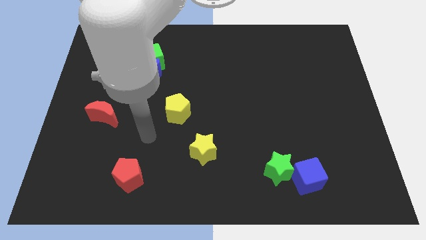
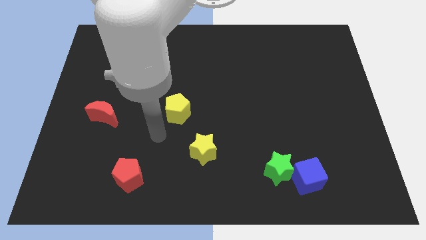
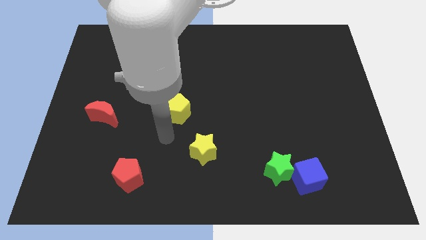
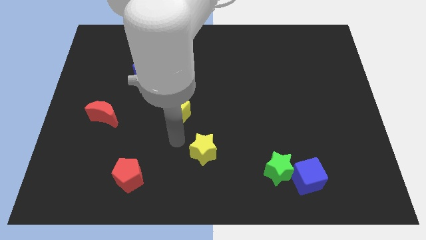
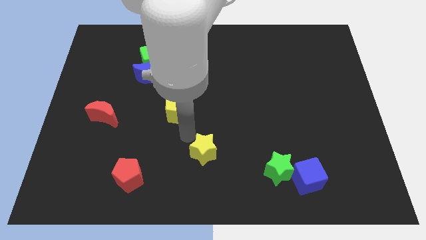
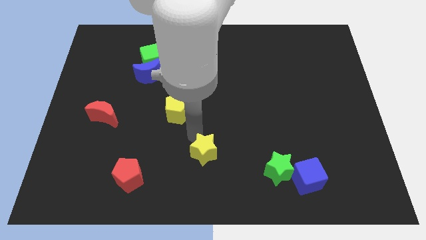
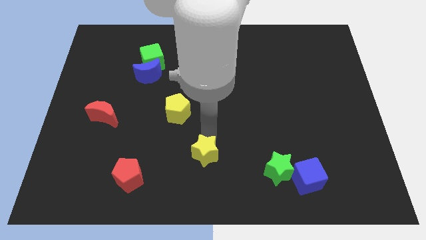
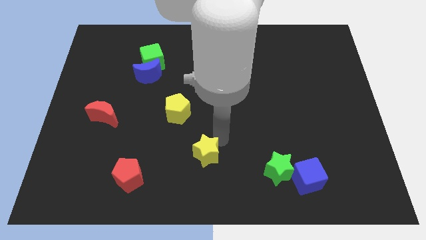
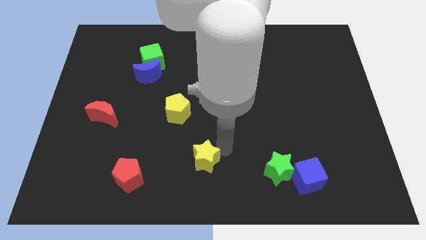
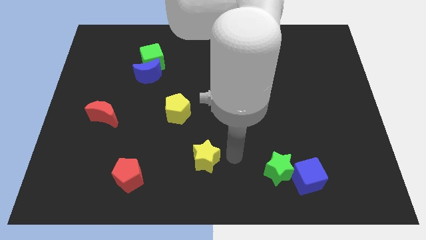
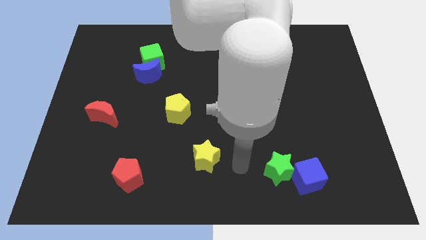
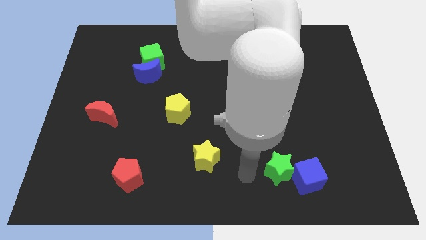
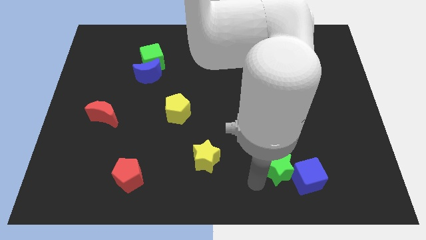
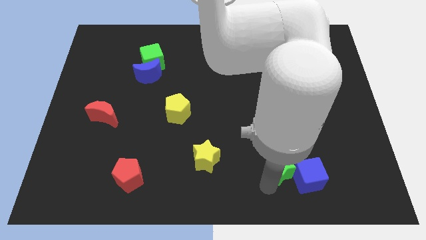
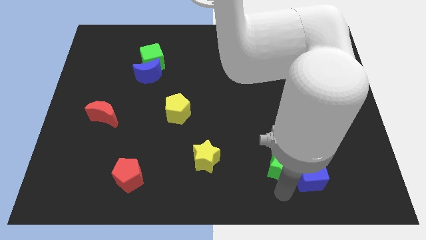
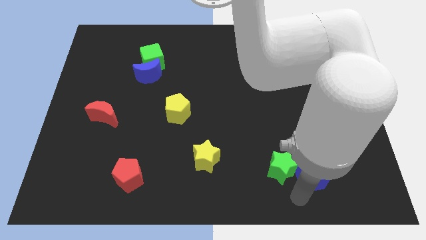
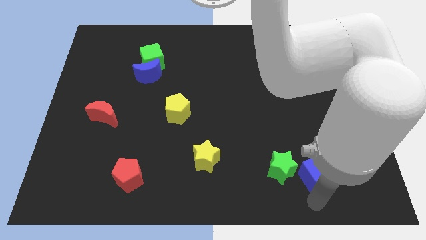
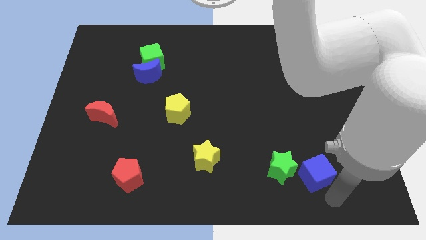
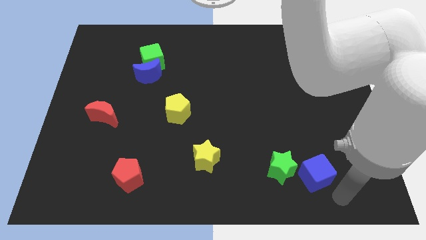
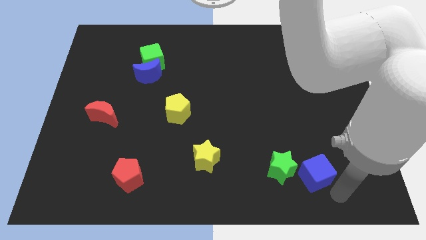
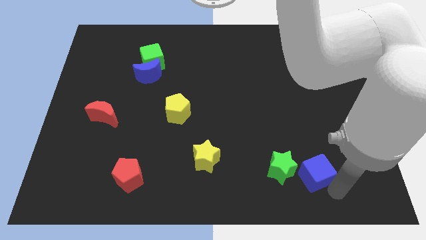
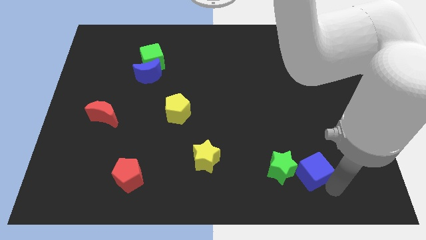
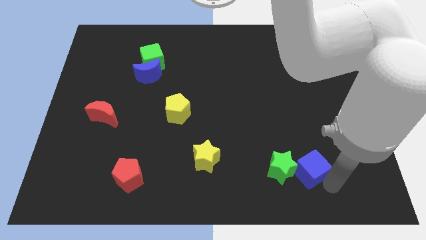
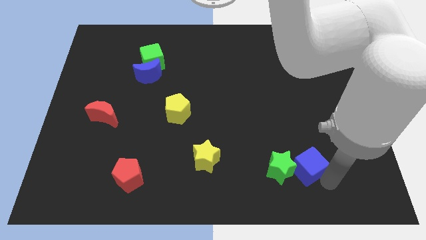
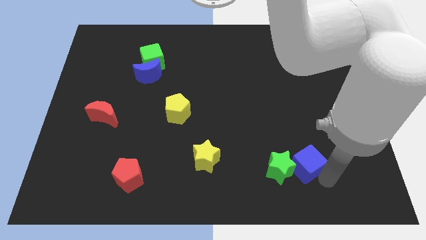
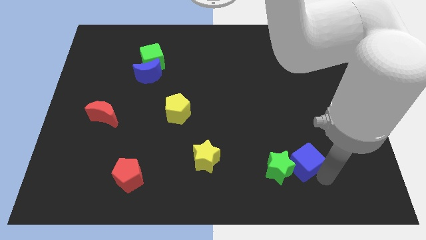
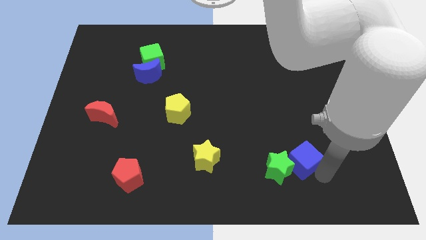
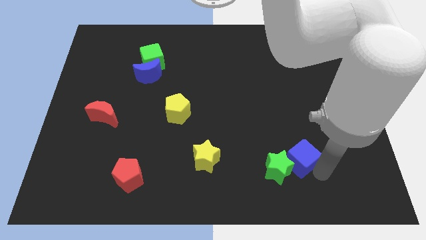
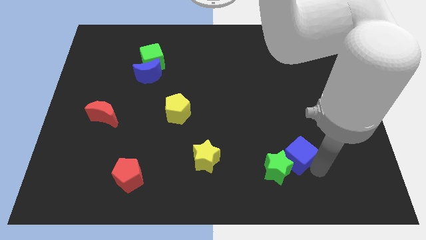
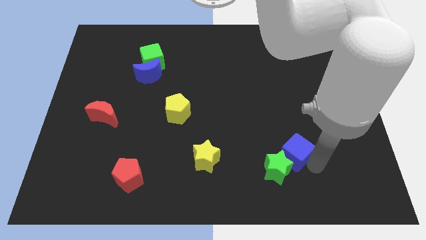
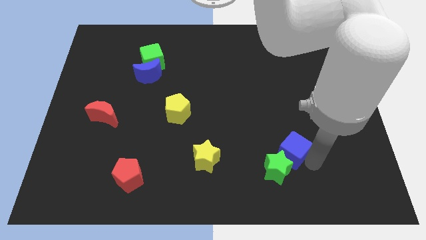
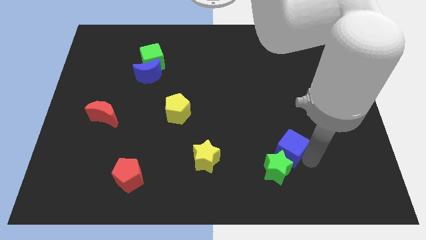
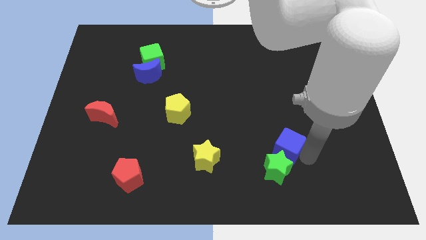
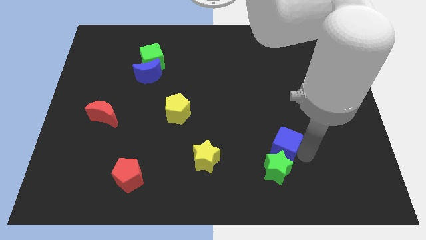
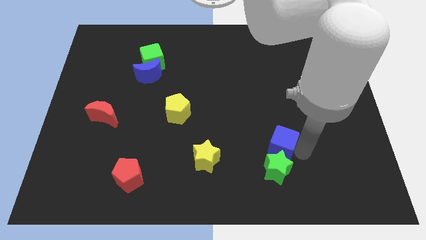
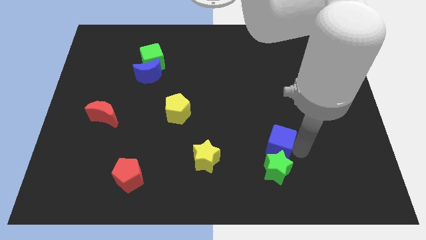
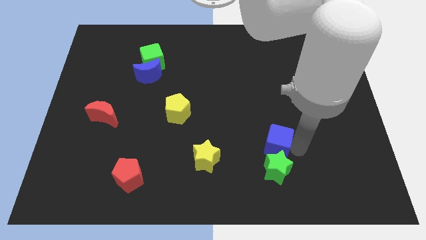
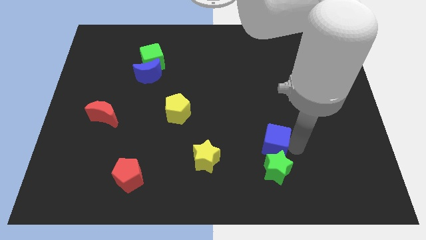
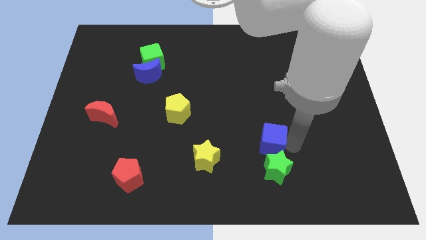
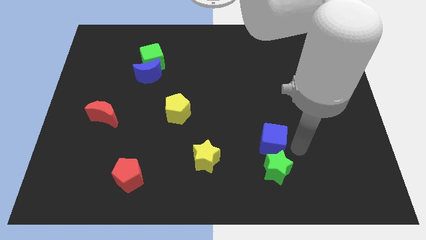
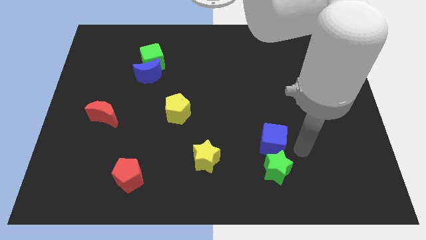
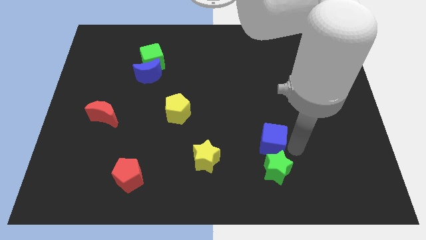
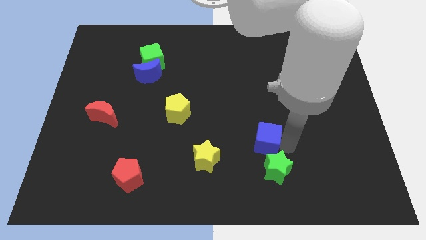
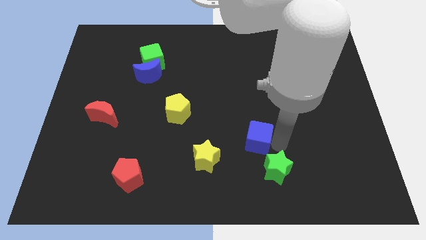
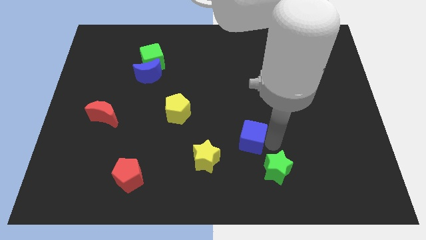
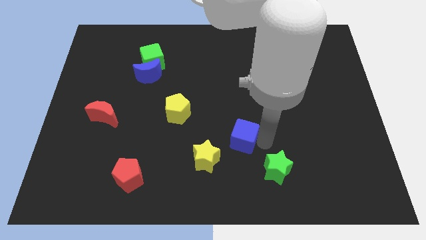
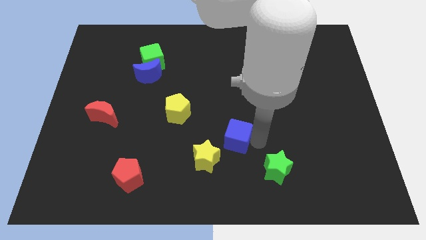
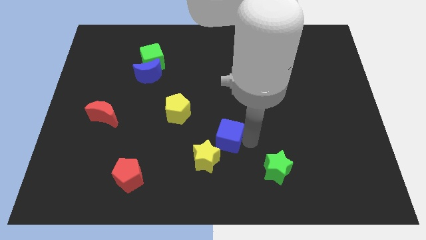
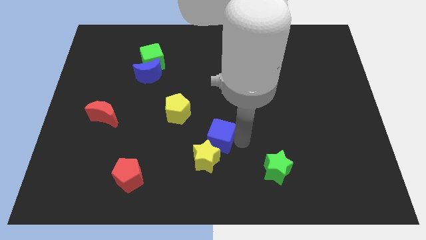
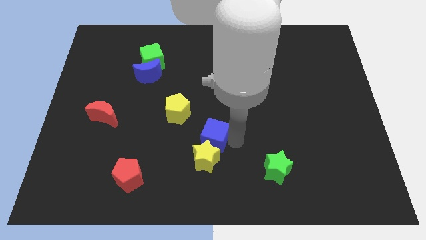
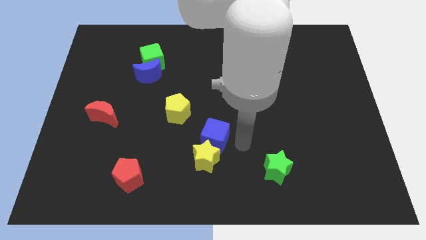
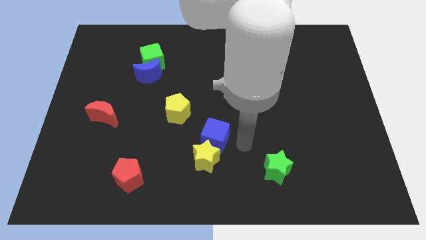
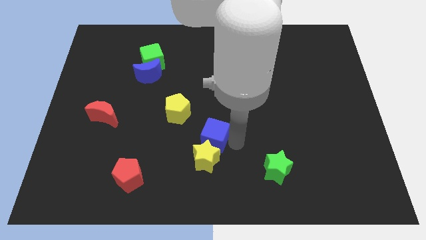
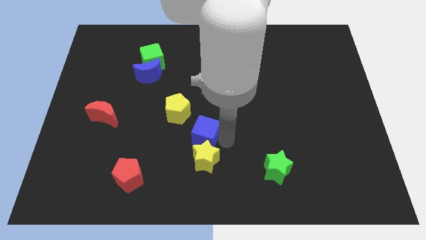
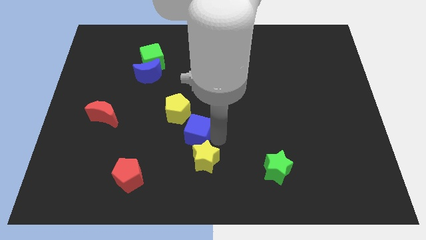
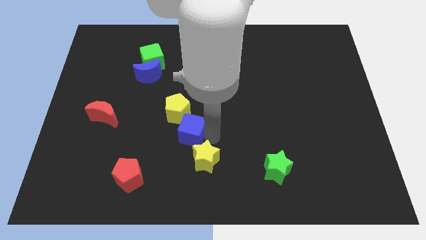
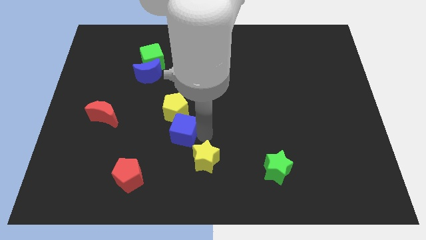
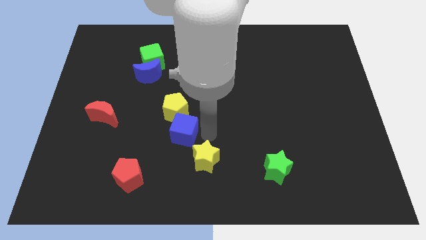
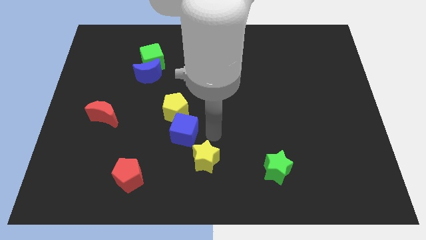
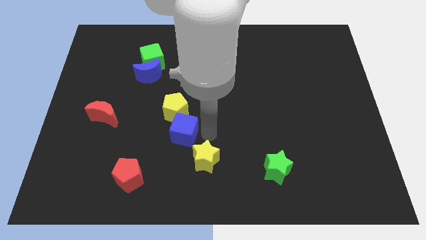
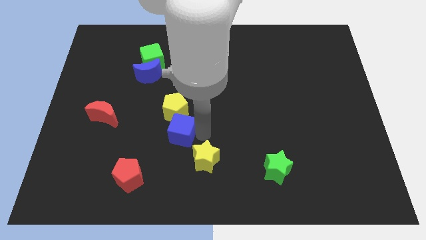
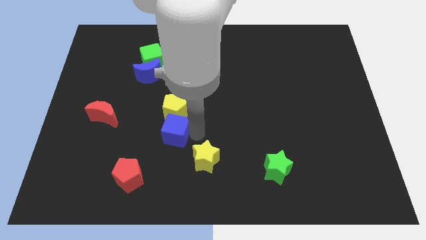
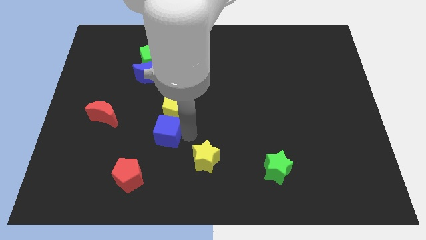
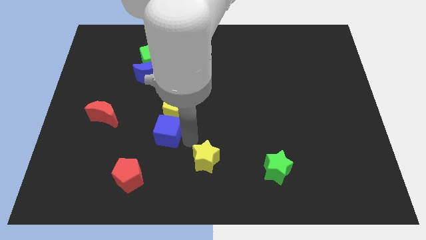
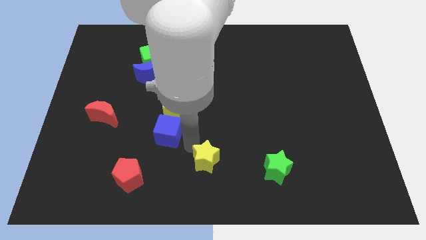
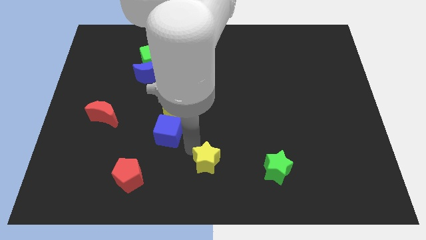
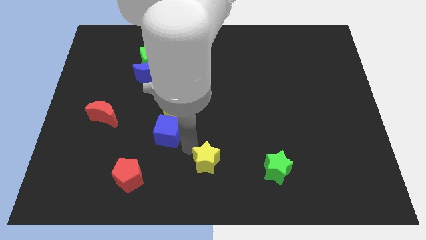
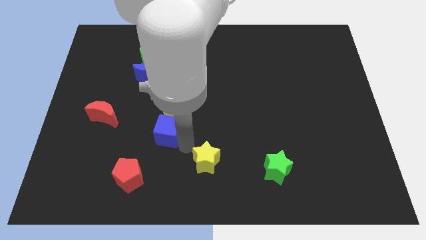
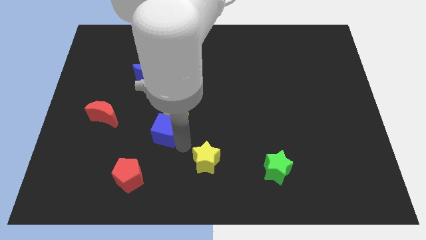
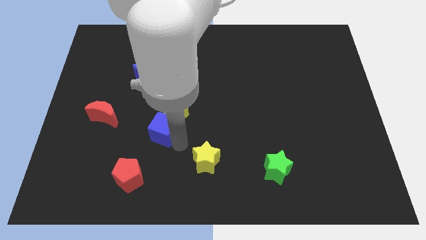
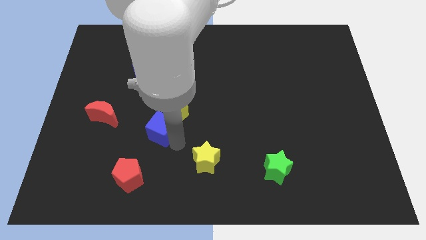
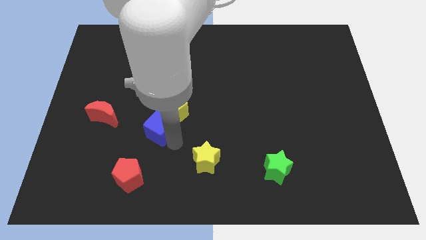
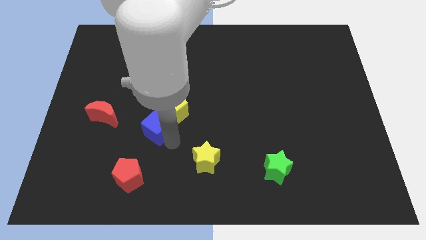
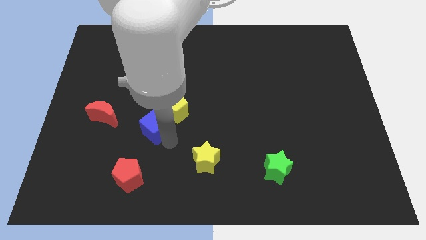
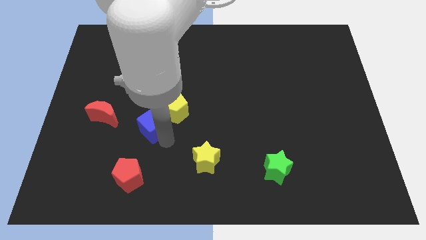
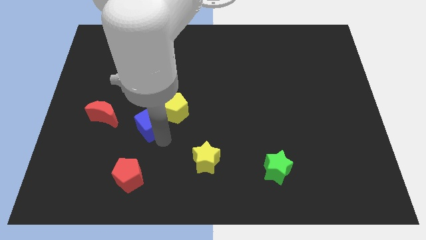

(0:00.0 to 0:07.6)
move the blue cube below the blue moon
